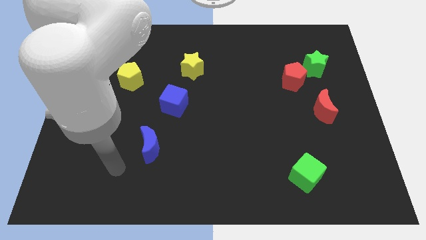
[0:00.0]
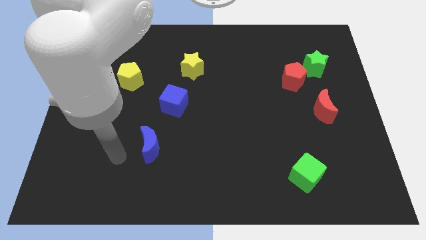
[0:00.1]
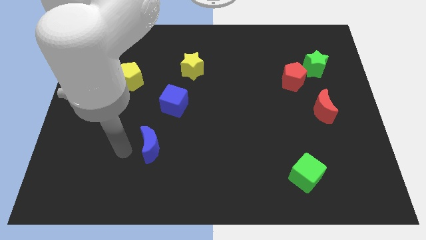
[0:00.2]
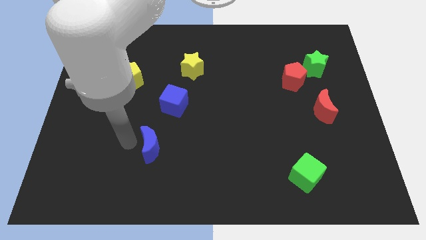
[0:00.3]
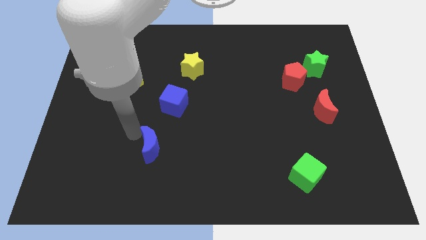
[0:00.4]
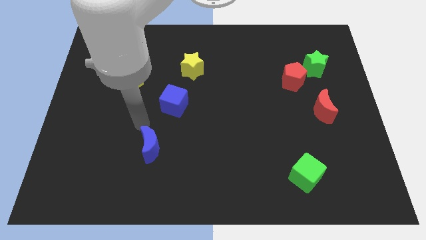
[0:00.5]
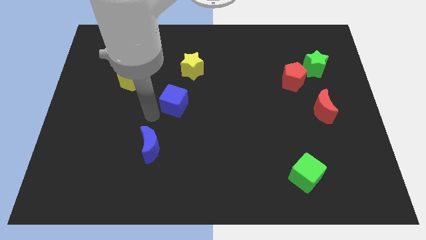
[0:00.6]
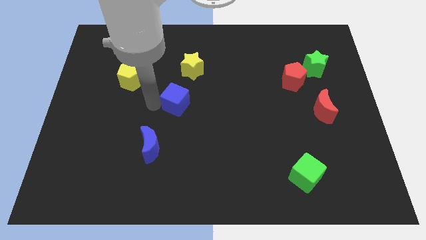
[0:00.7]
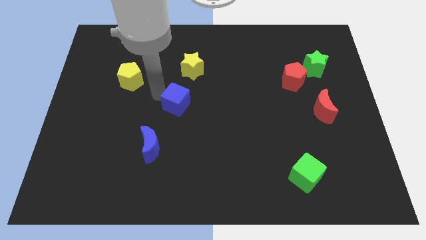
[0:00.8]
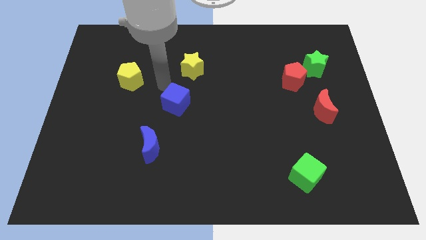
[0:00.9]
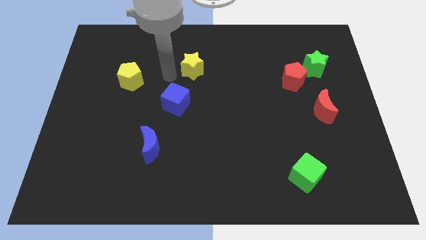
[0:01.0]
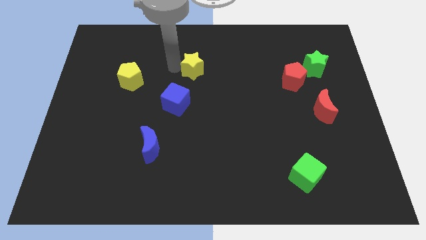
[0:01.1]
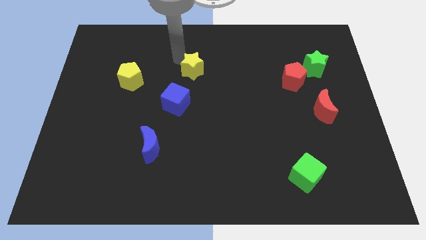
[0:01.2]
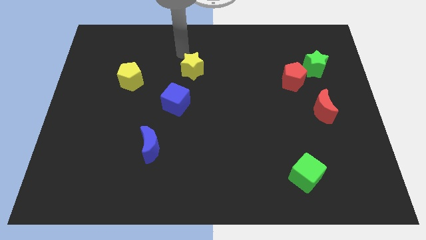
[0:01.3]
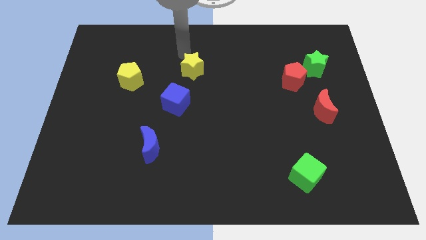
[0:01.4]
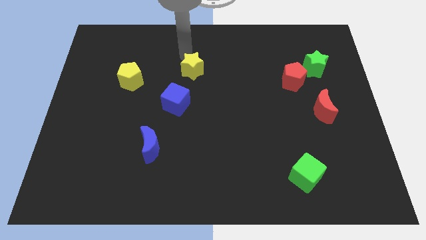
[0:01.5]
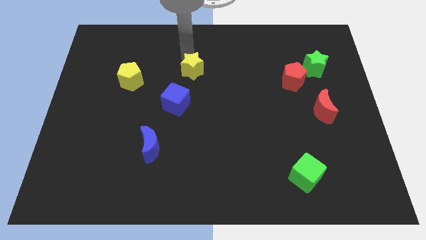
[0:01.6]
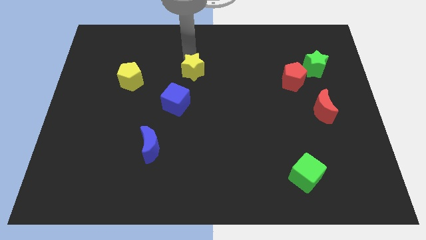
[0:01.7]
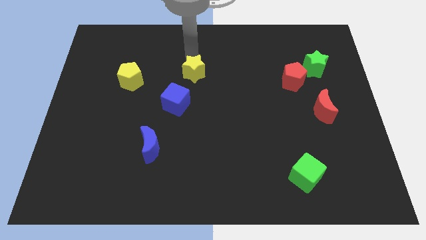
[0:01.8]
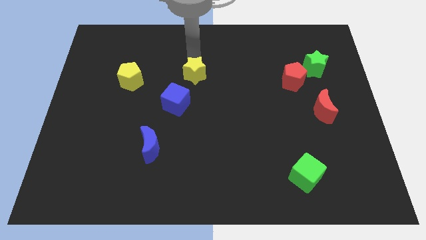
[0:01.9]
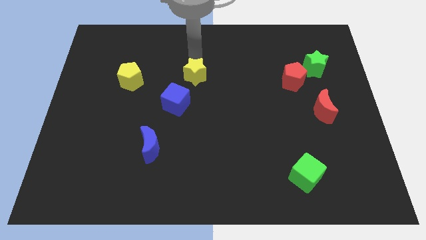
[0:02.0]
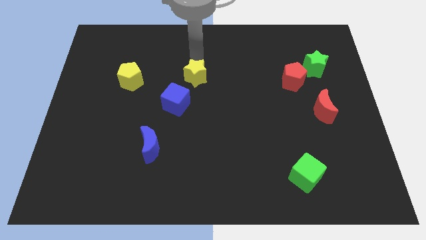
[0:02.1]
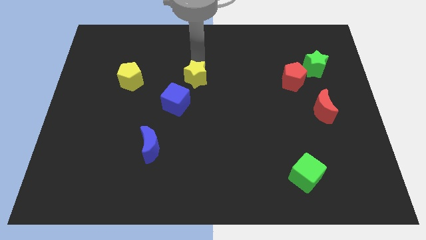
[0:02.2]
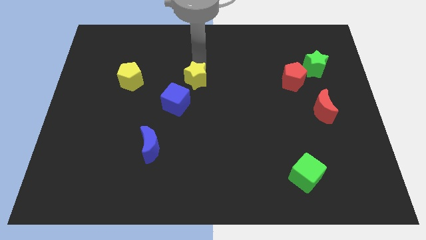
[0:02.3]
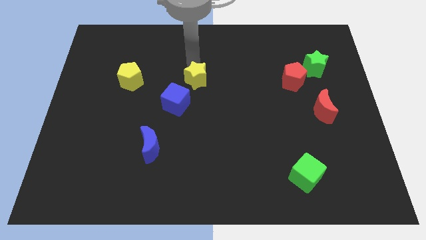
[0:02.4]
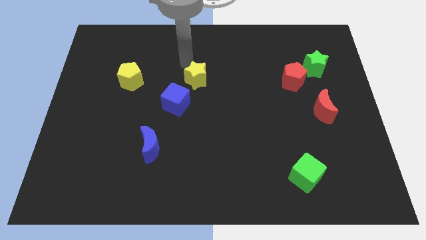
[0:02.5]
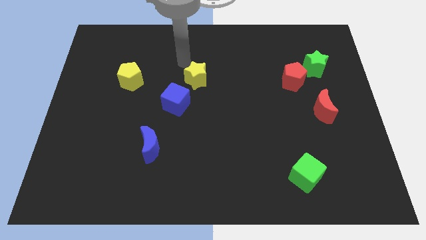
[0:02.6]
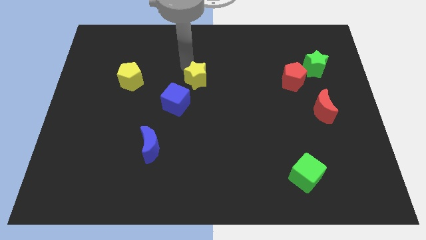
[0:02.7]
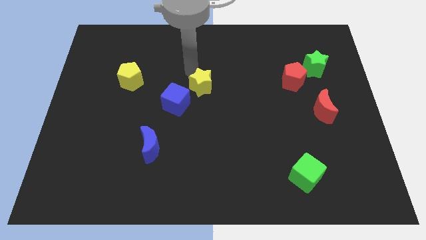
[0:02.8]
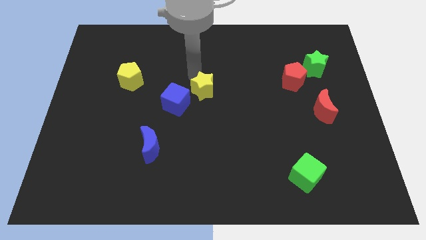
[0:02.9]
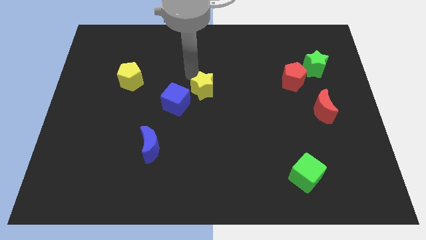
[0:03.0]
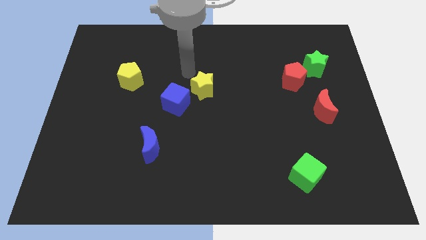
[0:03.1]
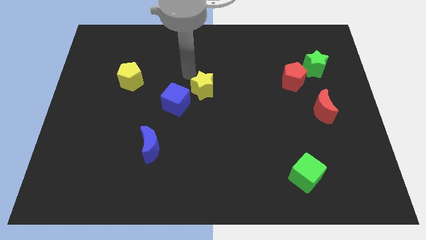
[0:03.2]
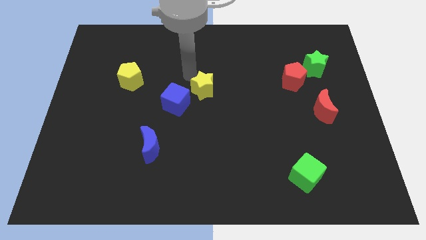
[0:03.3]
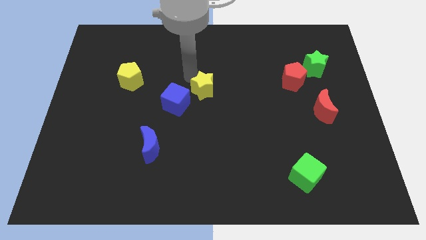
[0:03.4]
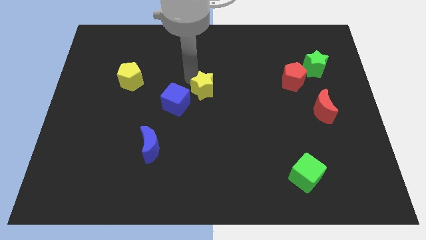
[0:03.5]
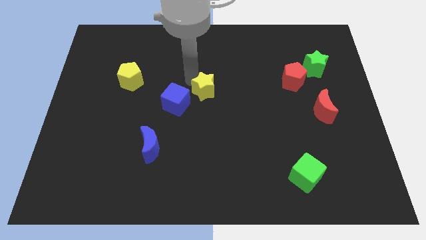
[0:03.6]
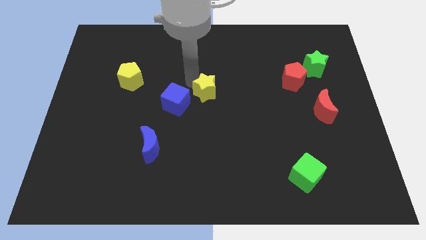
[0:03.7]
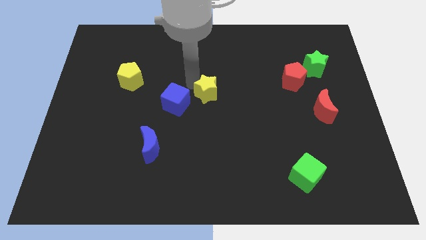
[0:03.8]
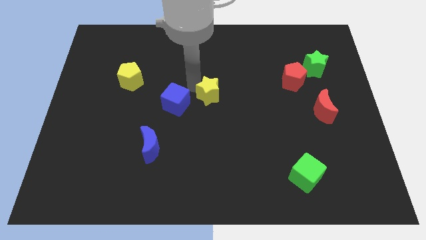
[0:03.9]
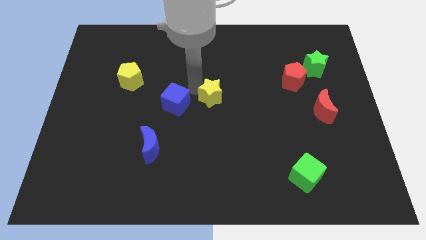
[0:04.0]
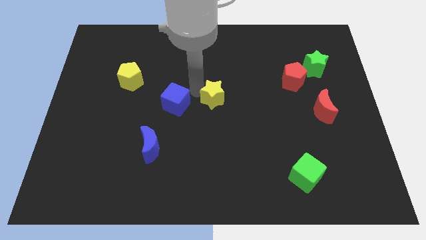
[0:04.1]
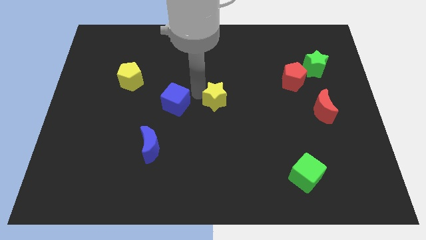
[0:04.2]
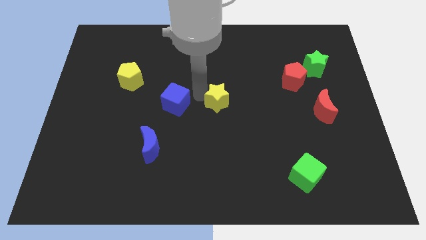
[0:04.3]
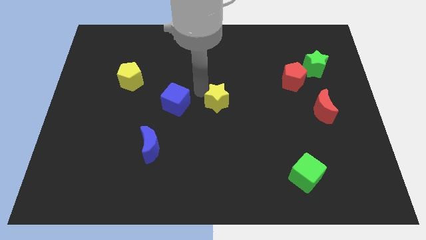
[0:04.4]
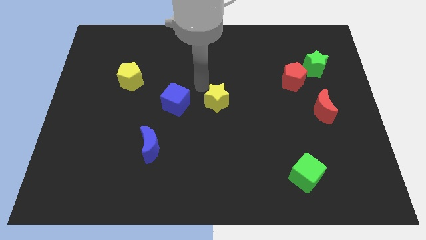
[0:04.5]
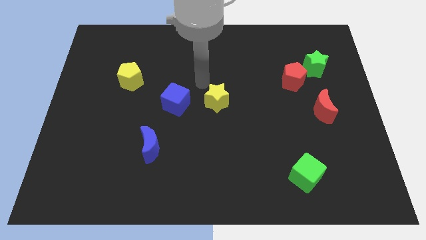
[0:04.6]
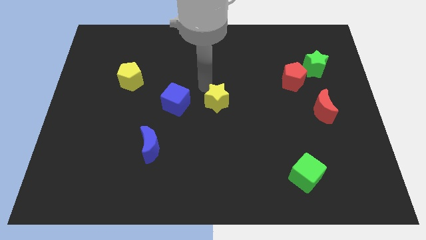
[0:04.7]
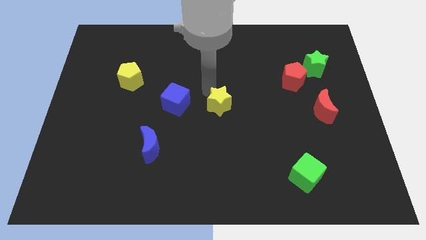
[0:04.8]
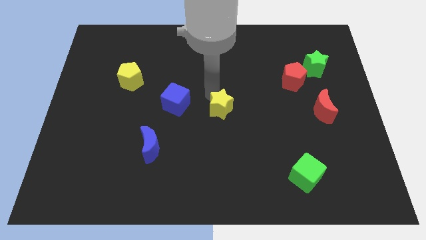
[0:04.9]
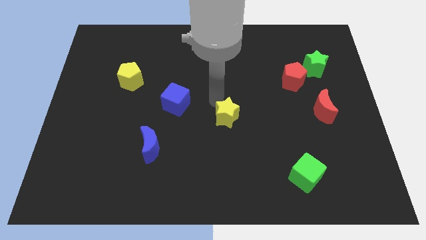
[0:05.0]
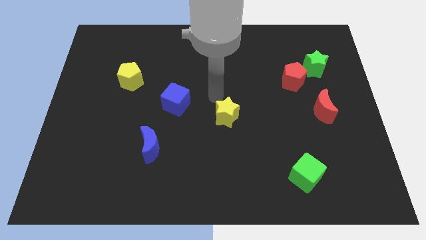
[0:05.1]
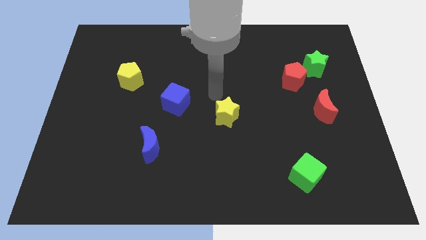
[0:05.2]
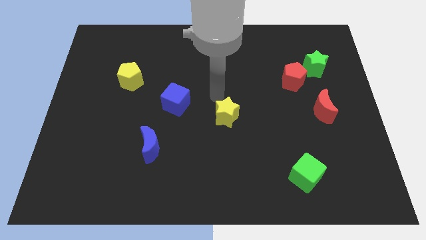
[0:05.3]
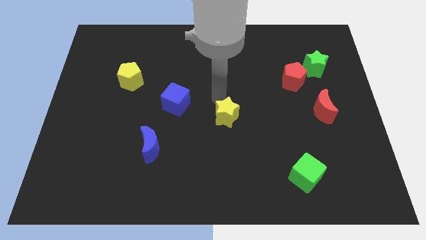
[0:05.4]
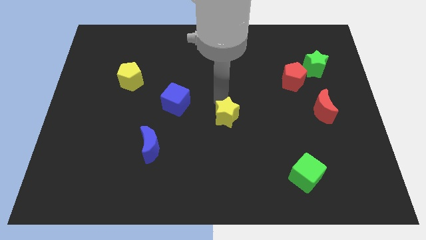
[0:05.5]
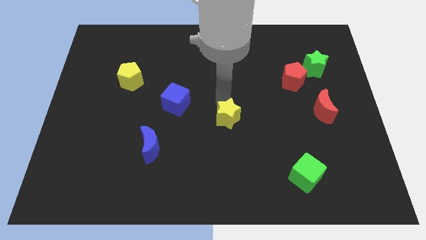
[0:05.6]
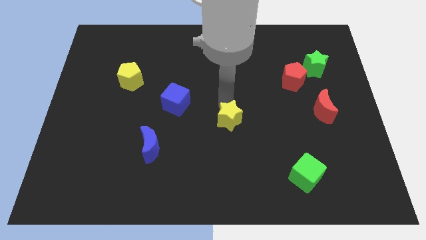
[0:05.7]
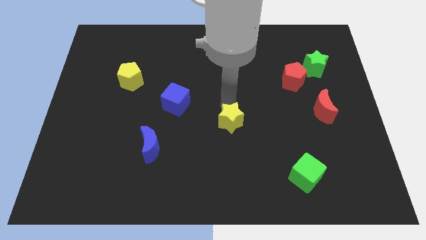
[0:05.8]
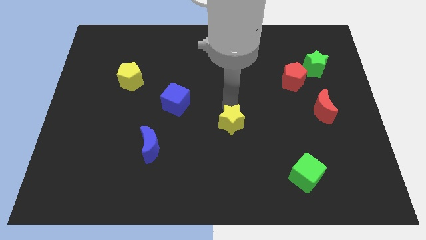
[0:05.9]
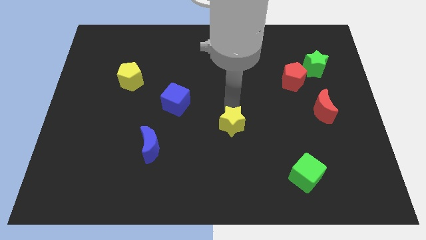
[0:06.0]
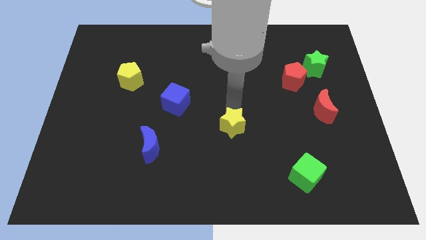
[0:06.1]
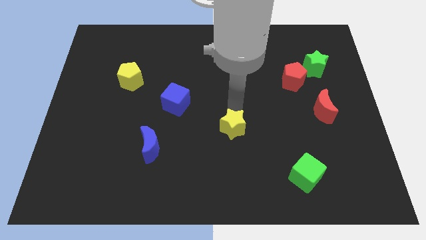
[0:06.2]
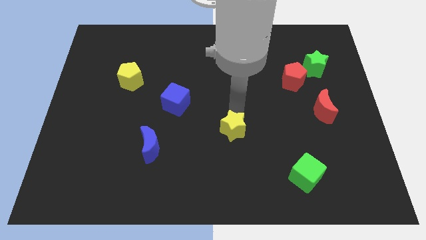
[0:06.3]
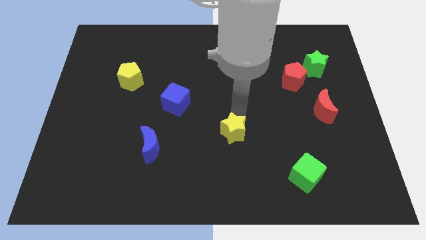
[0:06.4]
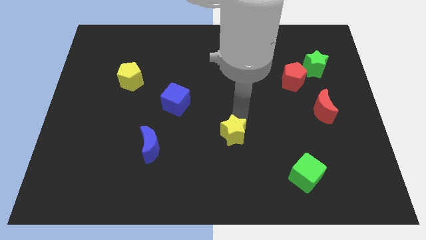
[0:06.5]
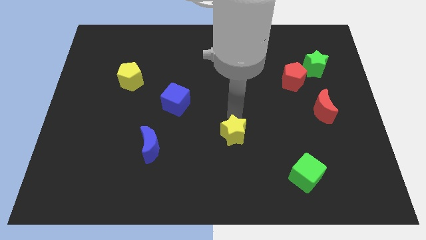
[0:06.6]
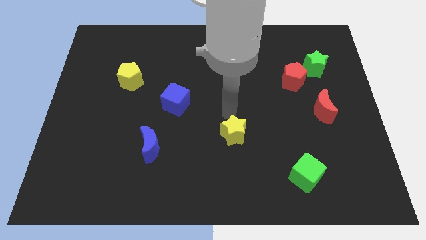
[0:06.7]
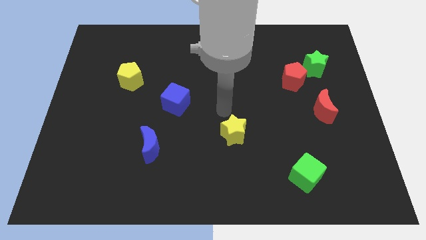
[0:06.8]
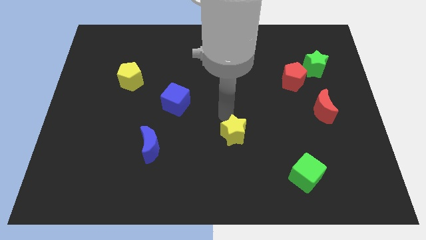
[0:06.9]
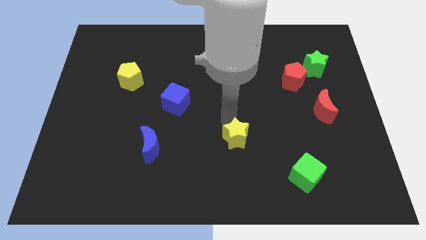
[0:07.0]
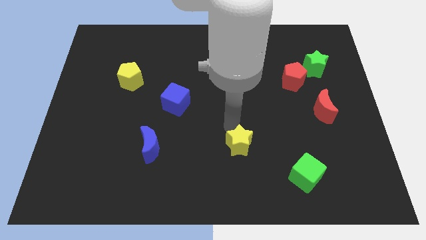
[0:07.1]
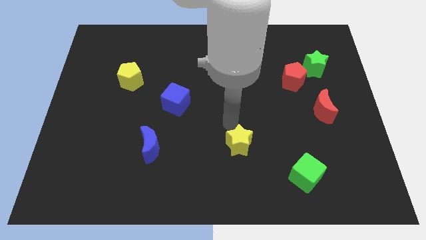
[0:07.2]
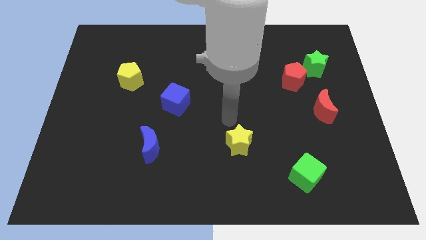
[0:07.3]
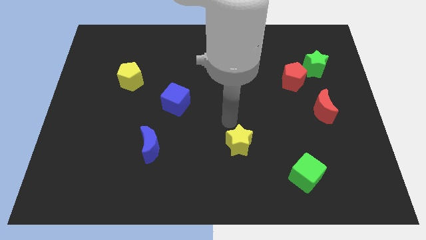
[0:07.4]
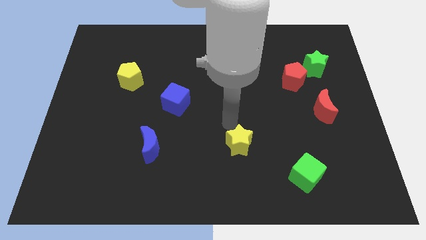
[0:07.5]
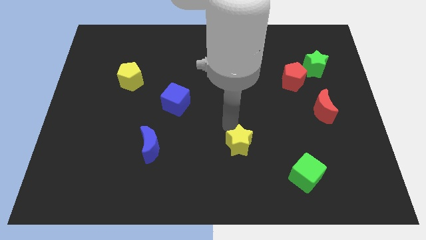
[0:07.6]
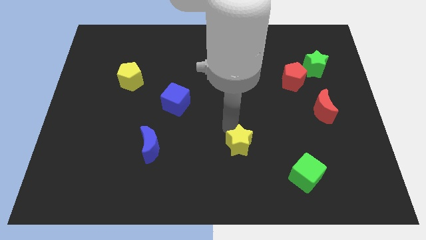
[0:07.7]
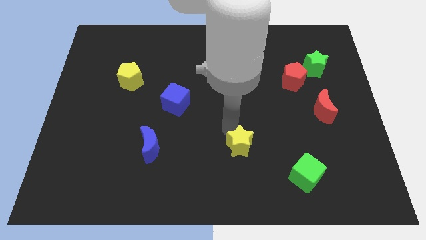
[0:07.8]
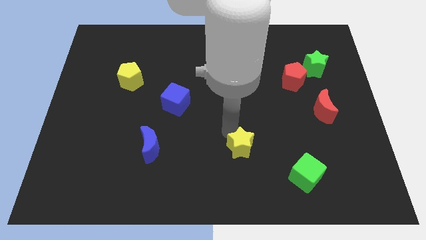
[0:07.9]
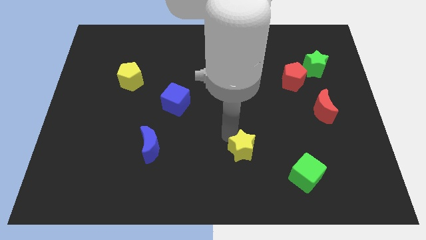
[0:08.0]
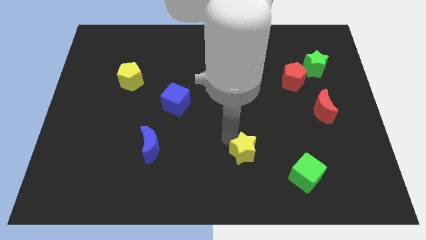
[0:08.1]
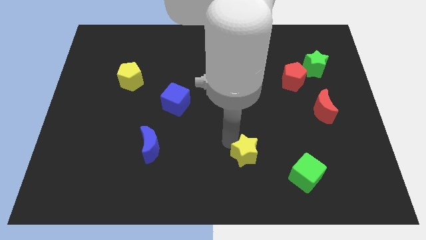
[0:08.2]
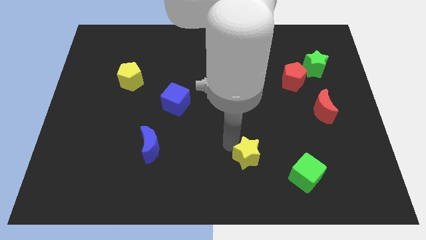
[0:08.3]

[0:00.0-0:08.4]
move the yellow star just left of the green cube
